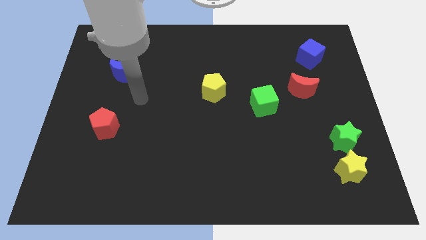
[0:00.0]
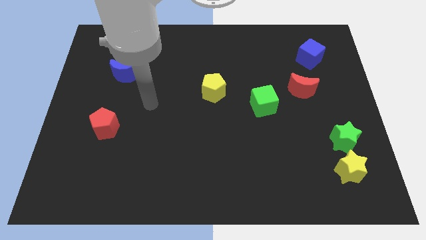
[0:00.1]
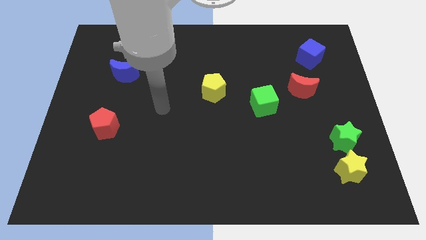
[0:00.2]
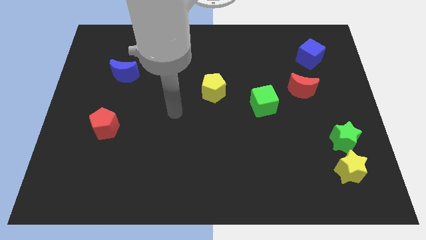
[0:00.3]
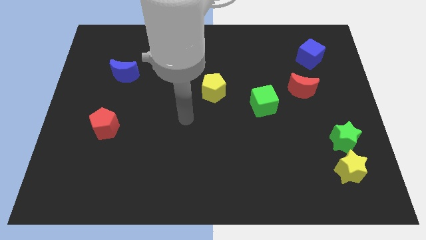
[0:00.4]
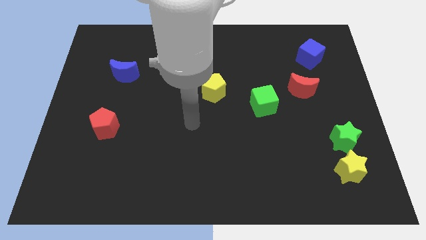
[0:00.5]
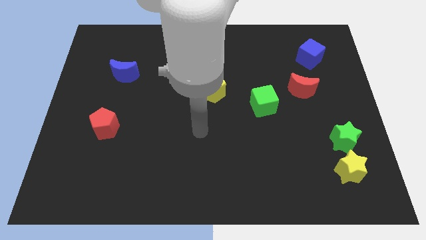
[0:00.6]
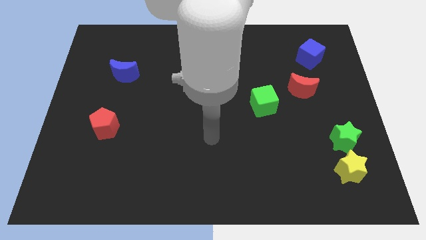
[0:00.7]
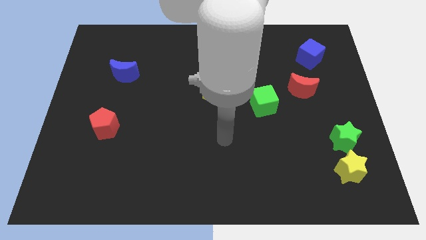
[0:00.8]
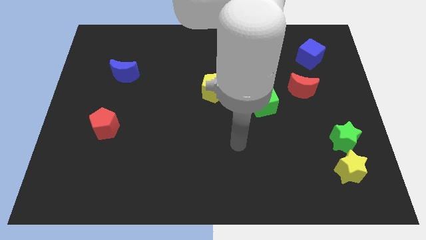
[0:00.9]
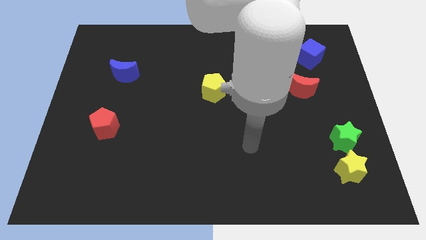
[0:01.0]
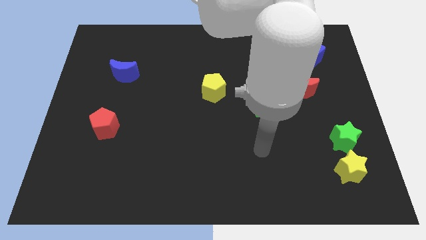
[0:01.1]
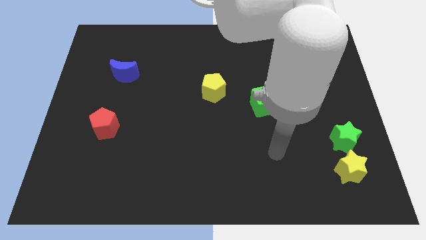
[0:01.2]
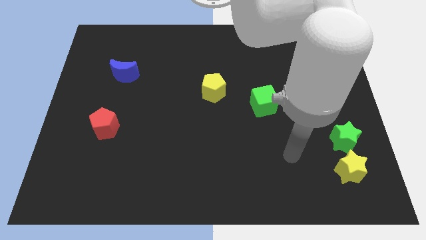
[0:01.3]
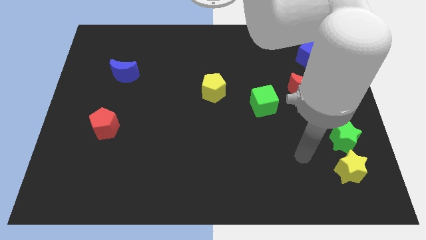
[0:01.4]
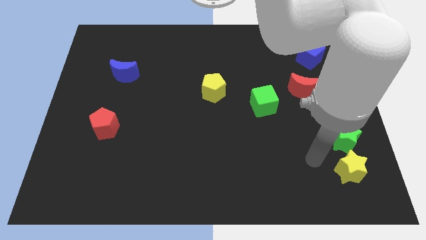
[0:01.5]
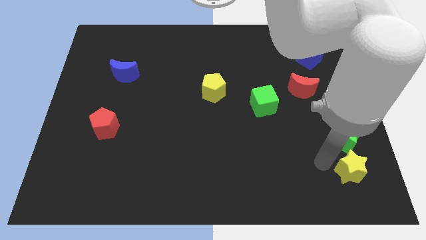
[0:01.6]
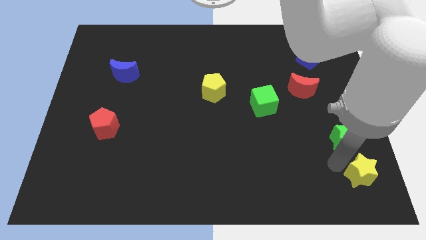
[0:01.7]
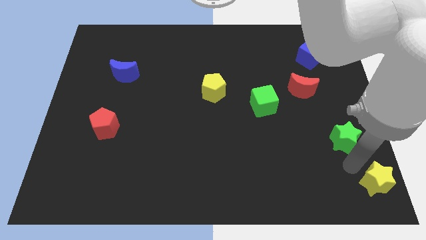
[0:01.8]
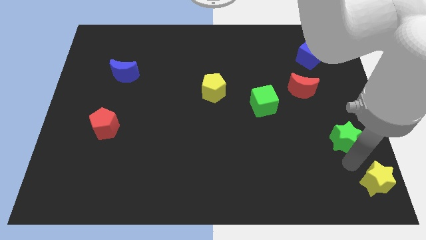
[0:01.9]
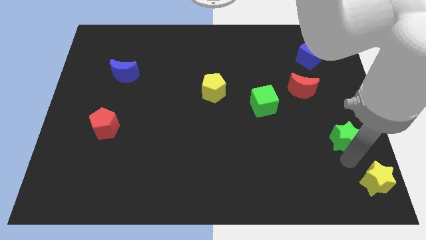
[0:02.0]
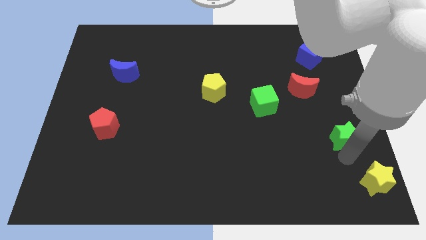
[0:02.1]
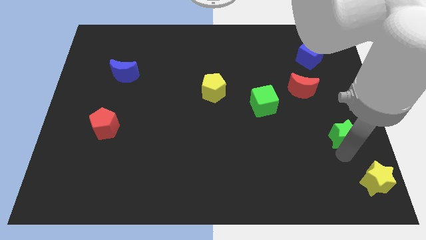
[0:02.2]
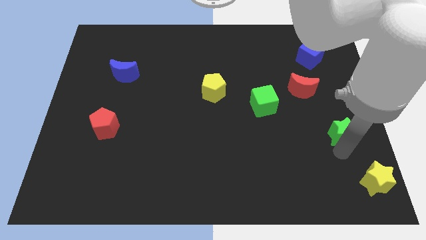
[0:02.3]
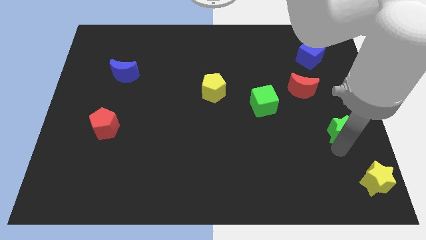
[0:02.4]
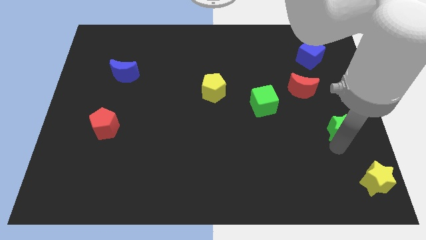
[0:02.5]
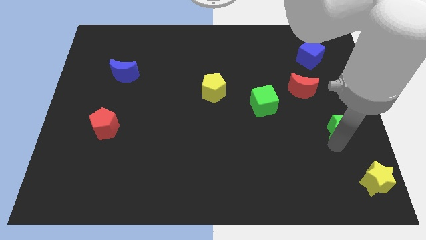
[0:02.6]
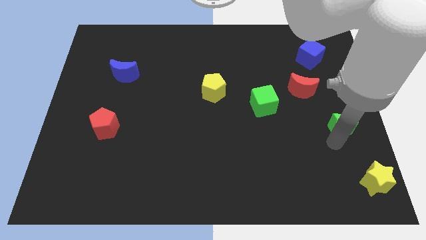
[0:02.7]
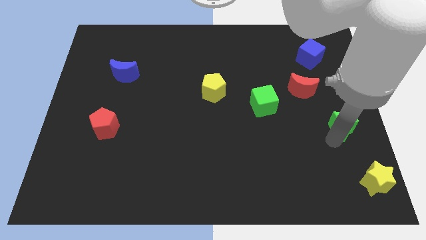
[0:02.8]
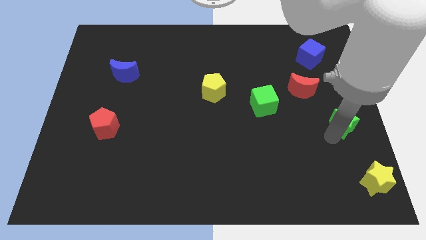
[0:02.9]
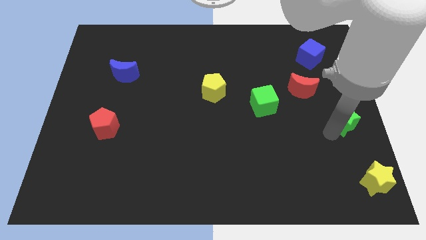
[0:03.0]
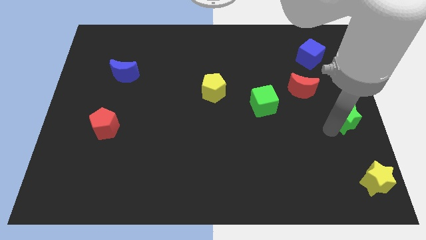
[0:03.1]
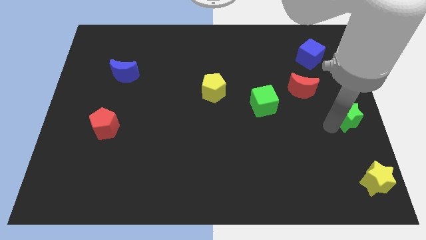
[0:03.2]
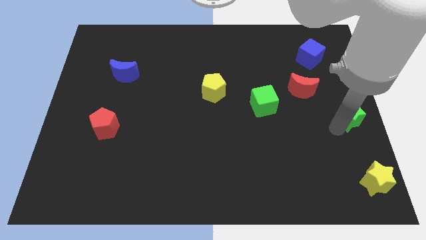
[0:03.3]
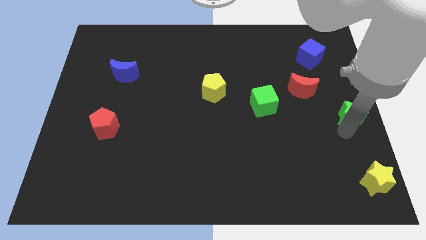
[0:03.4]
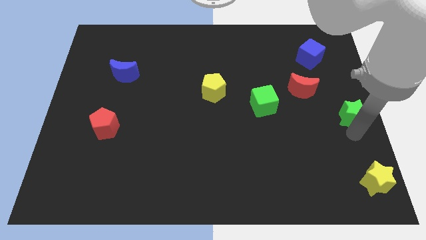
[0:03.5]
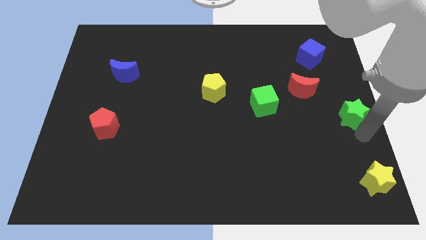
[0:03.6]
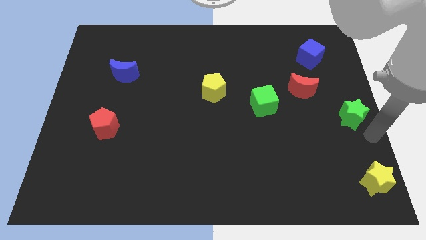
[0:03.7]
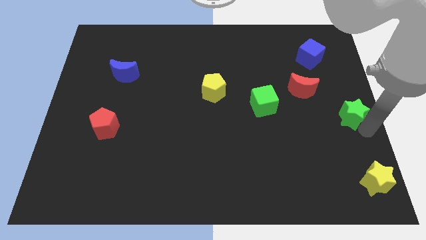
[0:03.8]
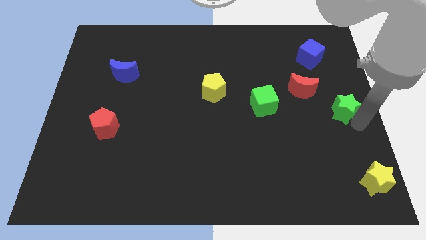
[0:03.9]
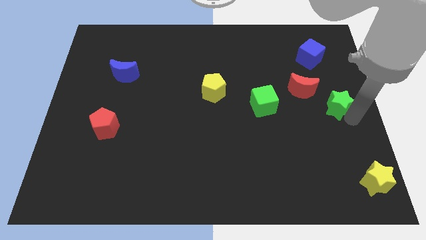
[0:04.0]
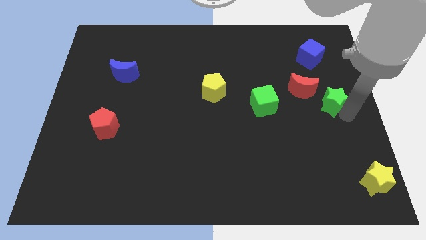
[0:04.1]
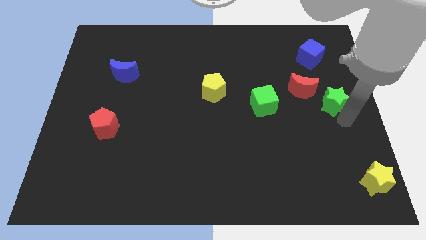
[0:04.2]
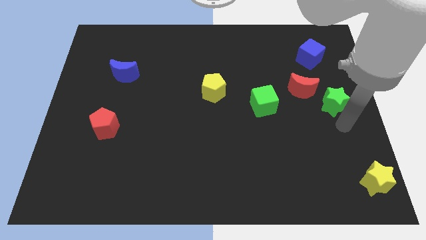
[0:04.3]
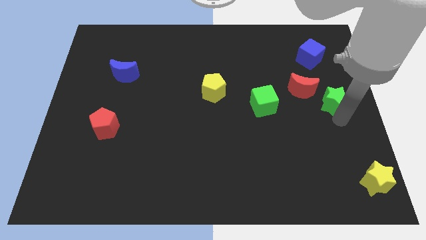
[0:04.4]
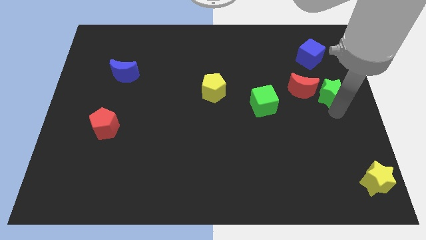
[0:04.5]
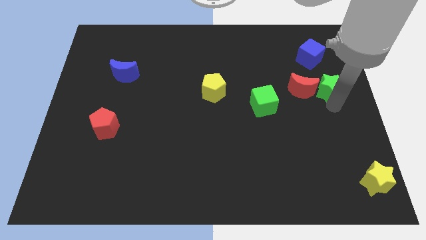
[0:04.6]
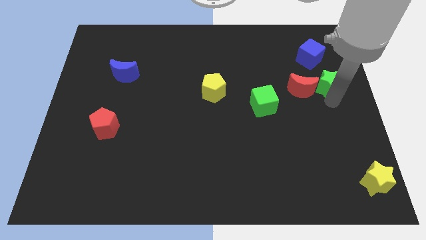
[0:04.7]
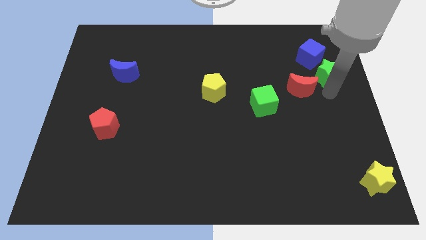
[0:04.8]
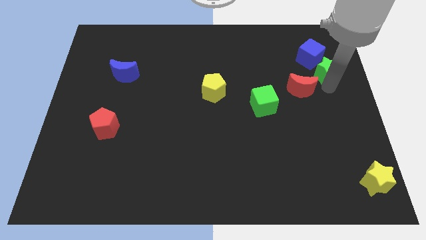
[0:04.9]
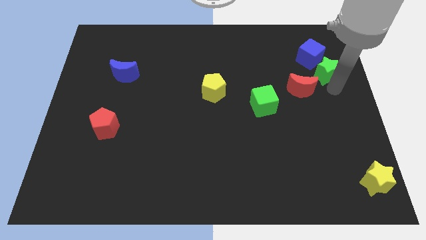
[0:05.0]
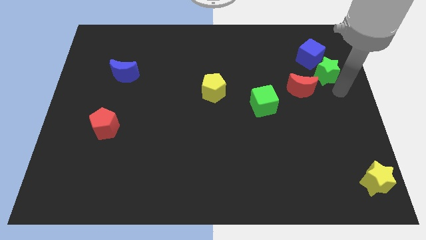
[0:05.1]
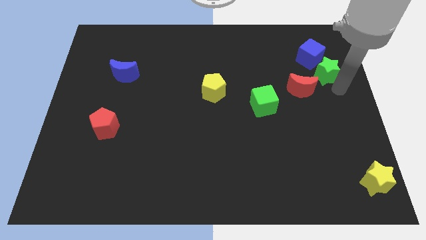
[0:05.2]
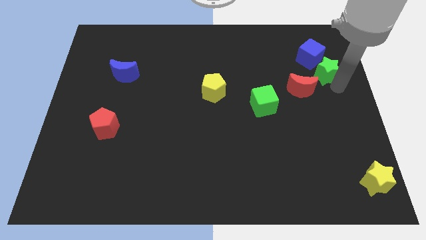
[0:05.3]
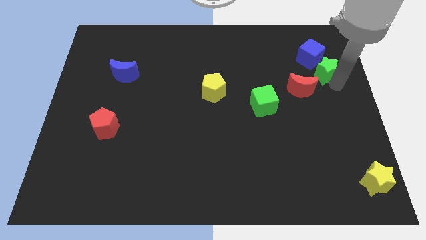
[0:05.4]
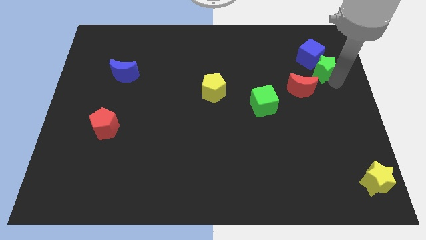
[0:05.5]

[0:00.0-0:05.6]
slide the green star towards the blue cube

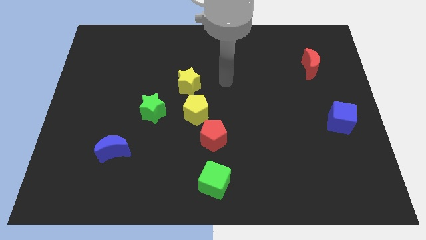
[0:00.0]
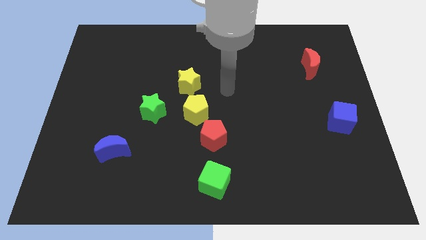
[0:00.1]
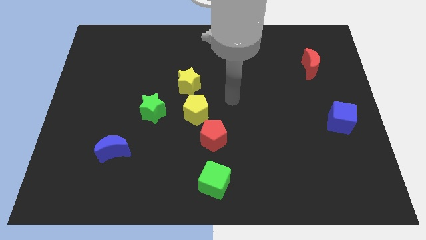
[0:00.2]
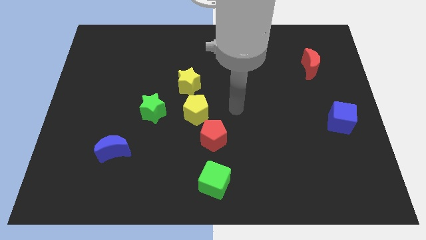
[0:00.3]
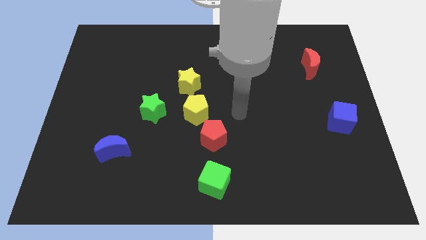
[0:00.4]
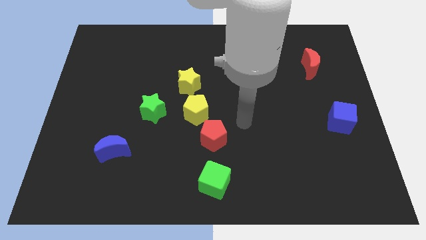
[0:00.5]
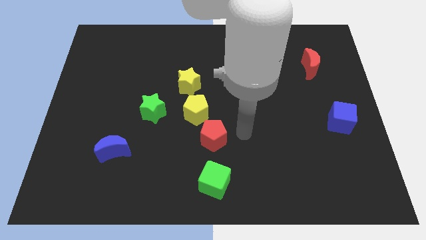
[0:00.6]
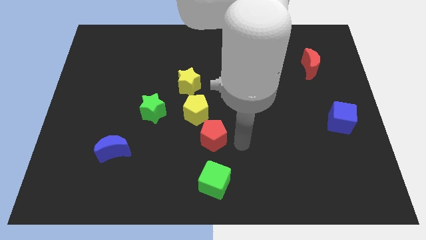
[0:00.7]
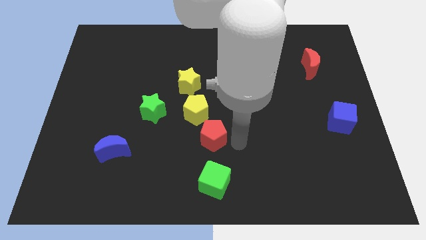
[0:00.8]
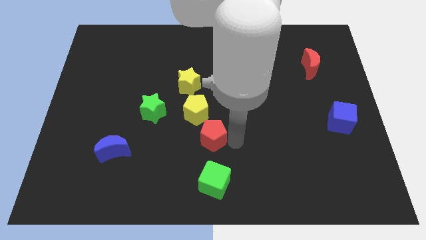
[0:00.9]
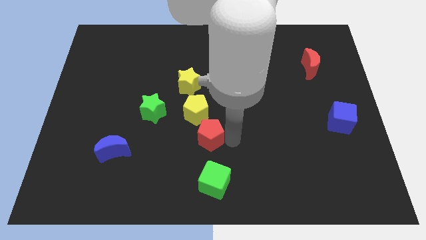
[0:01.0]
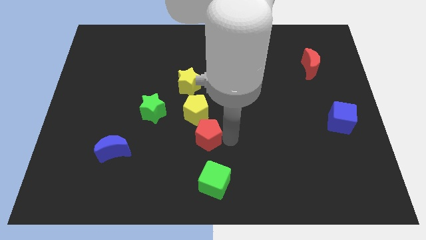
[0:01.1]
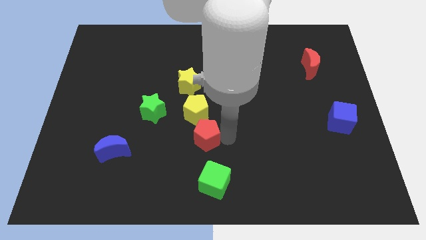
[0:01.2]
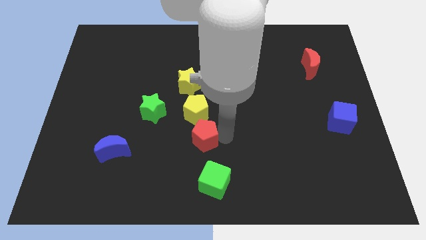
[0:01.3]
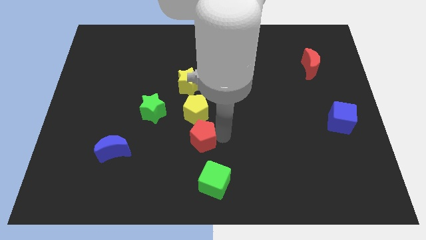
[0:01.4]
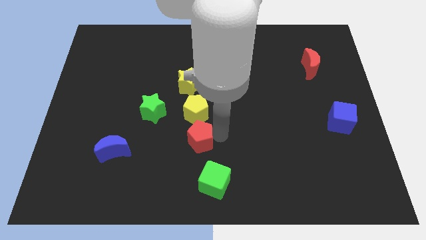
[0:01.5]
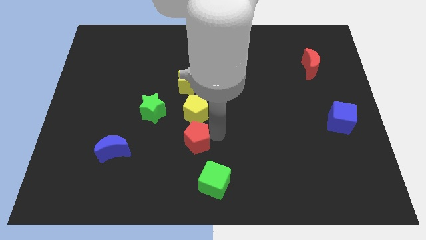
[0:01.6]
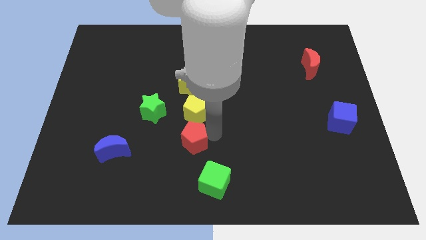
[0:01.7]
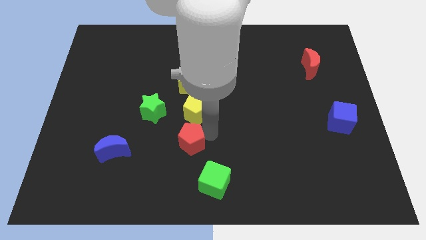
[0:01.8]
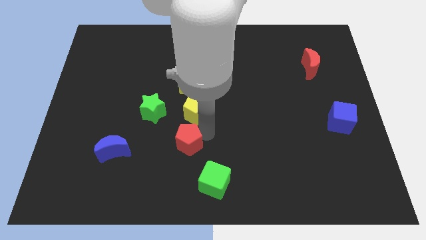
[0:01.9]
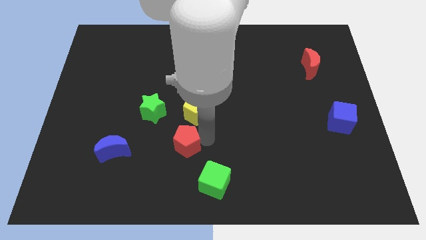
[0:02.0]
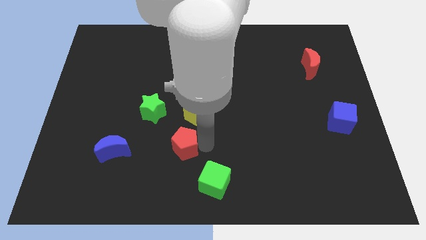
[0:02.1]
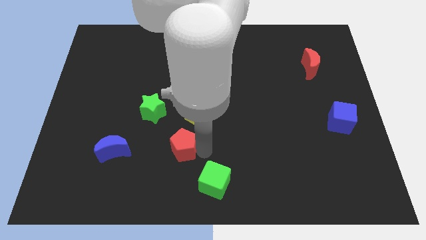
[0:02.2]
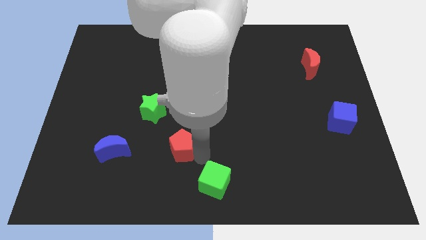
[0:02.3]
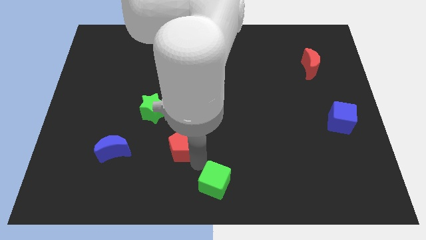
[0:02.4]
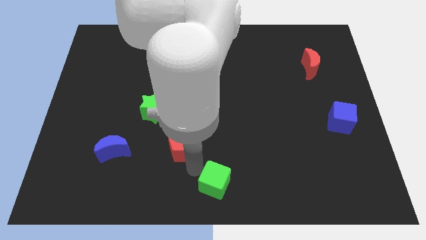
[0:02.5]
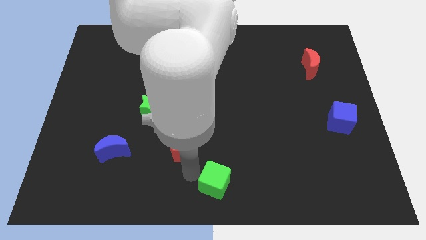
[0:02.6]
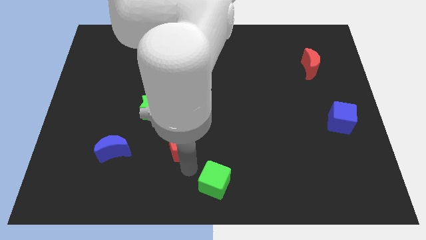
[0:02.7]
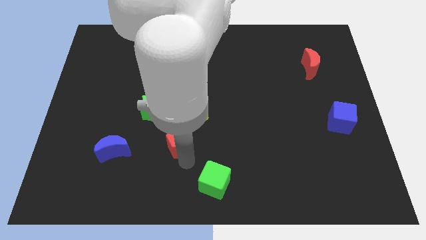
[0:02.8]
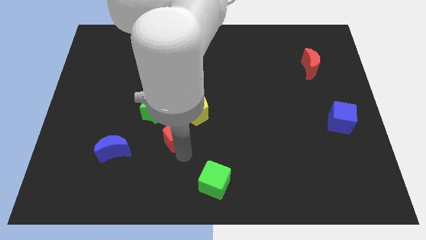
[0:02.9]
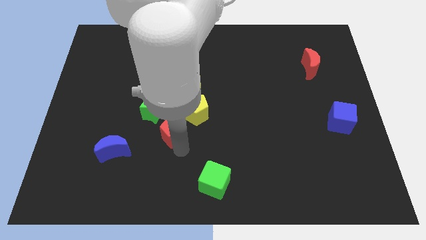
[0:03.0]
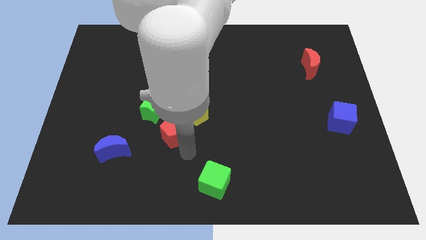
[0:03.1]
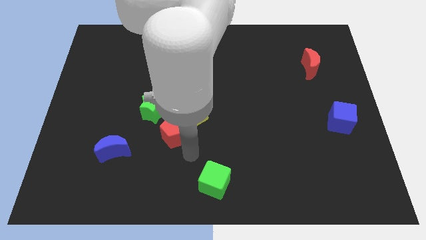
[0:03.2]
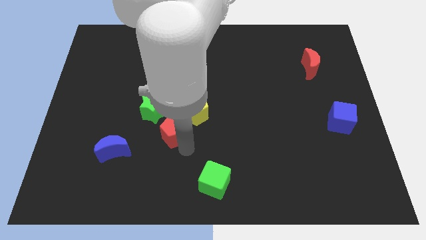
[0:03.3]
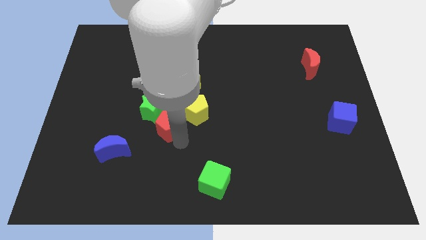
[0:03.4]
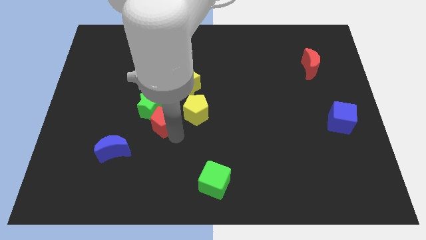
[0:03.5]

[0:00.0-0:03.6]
put the red pentagon towards the green star
